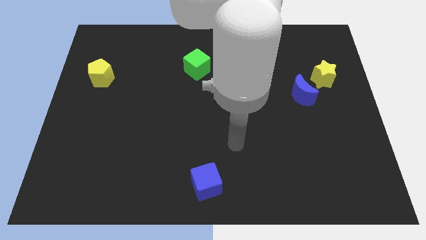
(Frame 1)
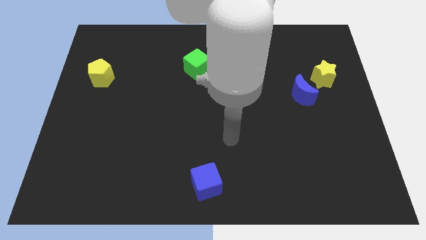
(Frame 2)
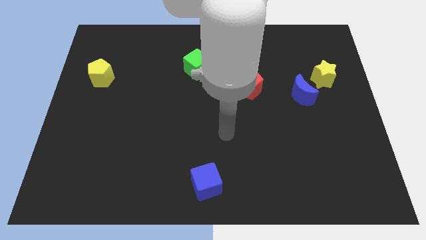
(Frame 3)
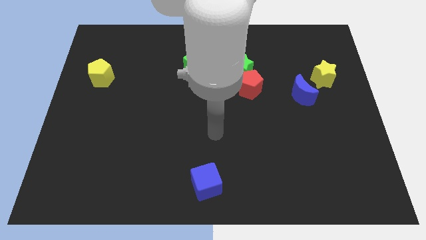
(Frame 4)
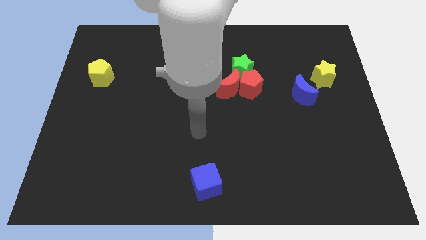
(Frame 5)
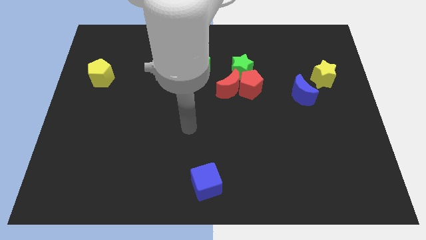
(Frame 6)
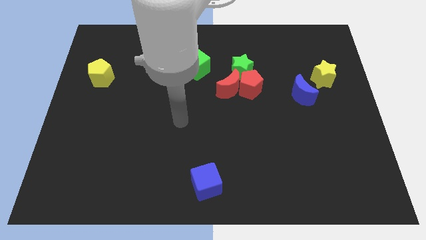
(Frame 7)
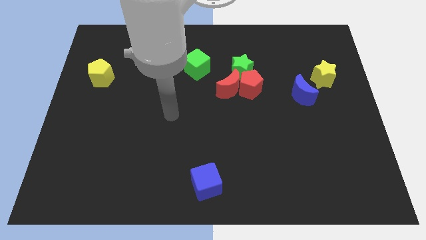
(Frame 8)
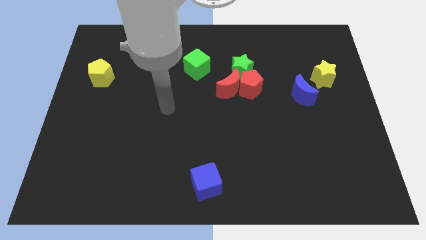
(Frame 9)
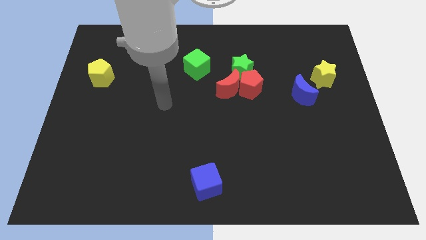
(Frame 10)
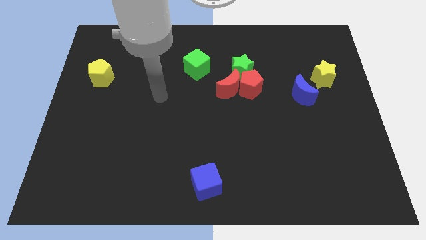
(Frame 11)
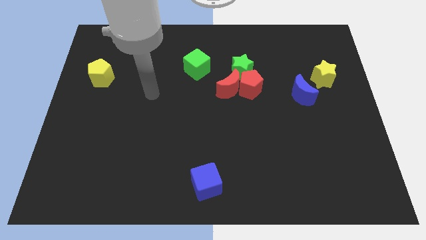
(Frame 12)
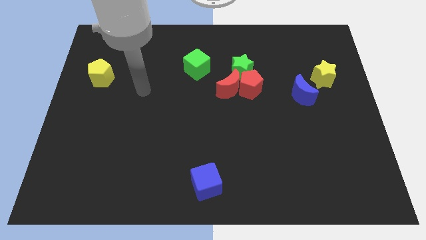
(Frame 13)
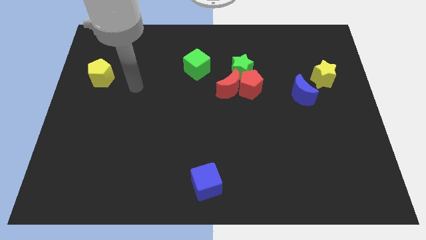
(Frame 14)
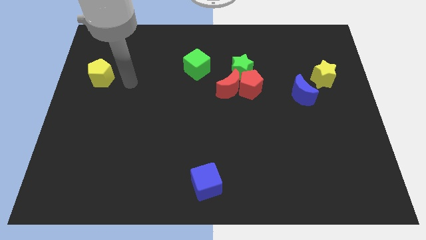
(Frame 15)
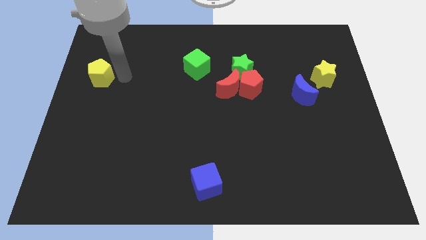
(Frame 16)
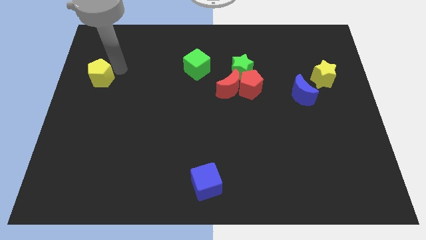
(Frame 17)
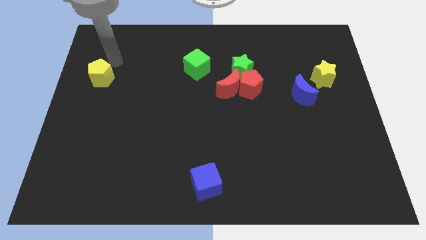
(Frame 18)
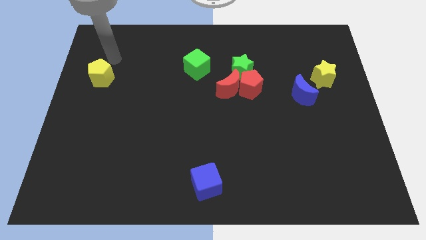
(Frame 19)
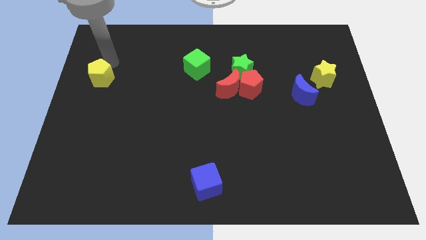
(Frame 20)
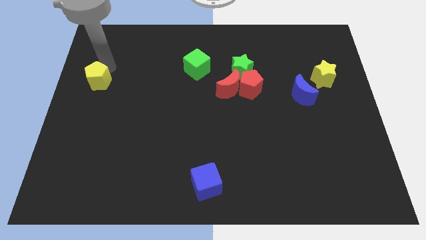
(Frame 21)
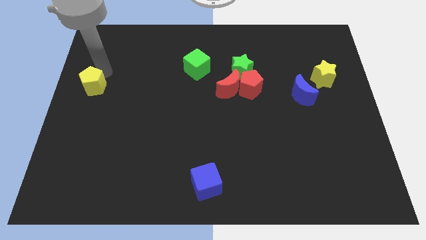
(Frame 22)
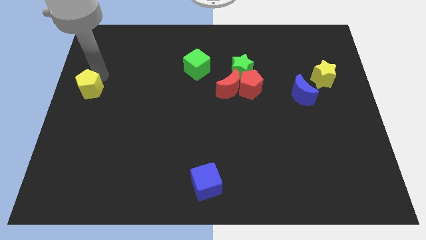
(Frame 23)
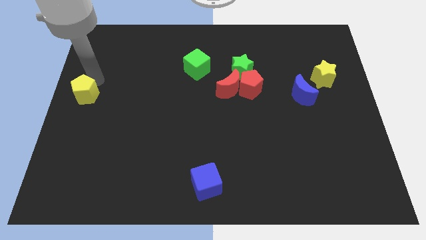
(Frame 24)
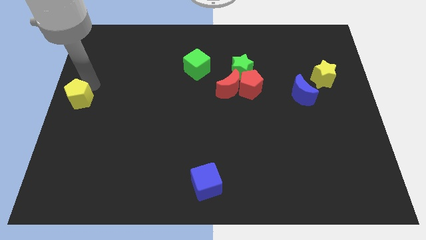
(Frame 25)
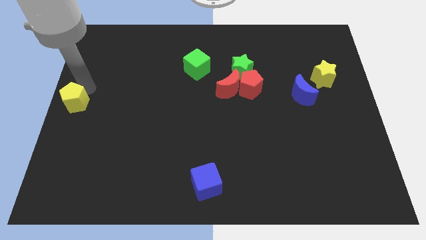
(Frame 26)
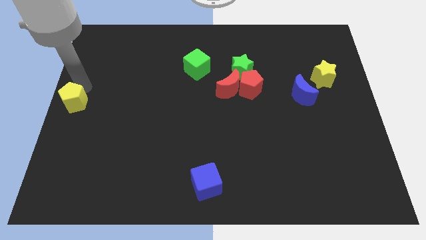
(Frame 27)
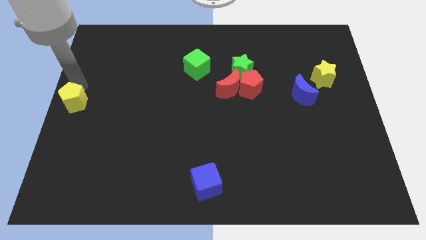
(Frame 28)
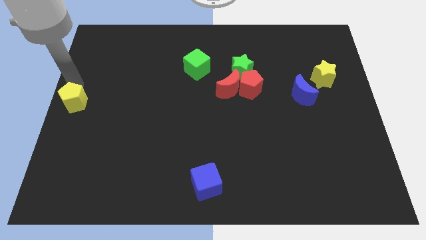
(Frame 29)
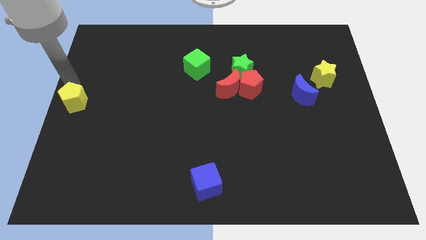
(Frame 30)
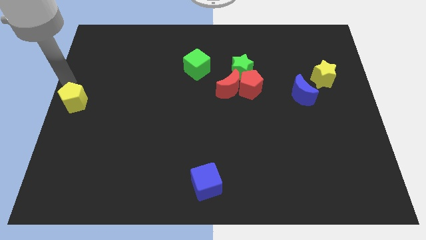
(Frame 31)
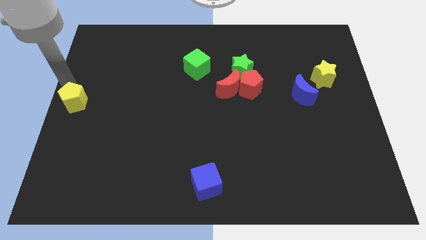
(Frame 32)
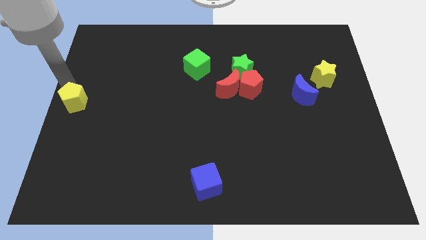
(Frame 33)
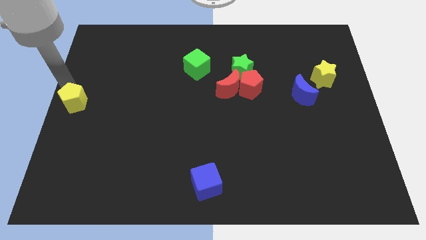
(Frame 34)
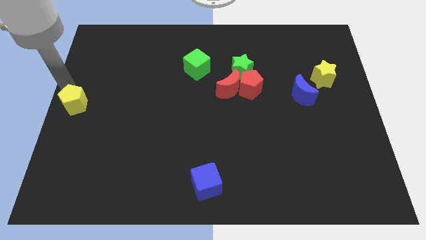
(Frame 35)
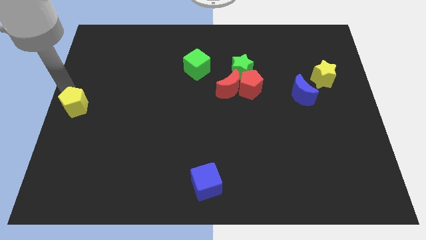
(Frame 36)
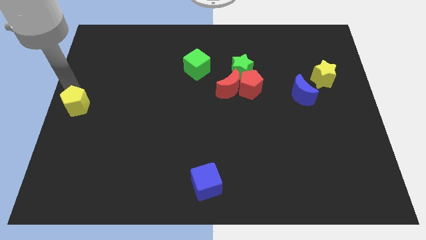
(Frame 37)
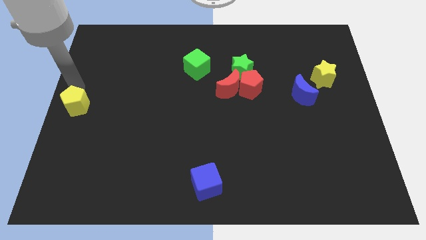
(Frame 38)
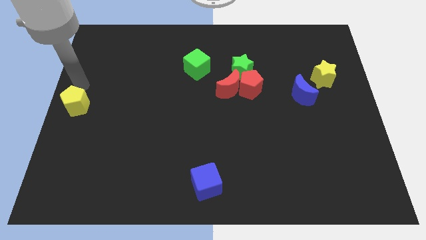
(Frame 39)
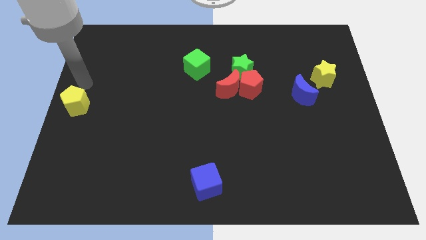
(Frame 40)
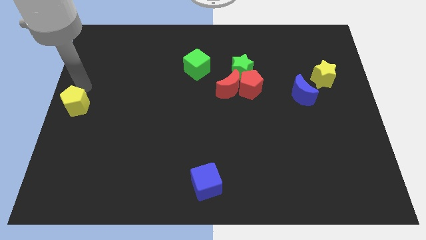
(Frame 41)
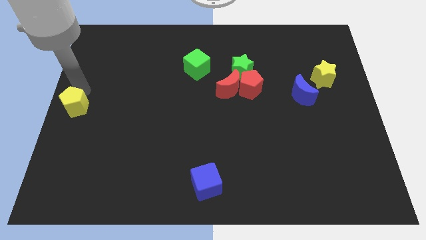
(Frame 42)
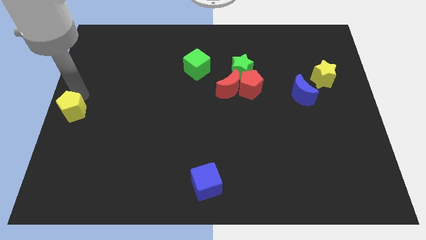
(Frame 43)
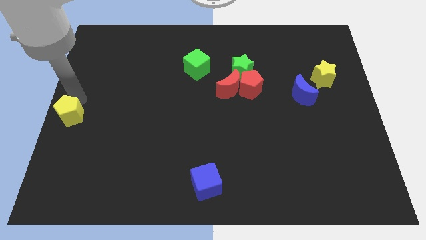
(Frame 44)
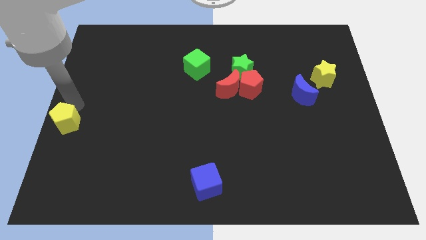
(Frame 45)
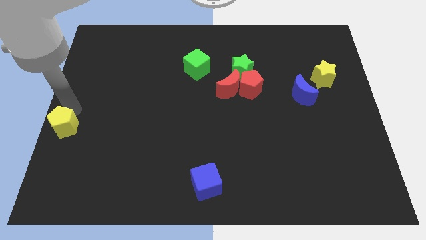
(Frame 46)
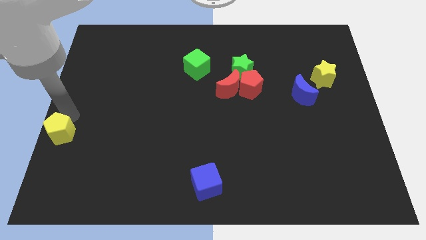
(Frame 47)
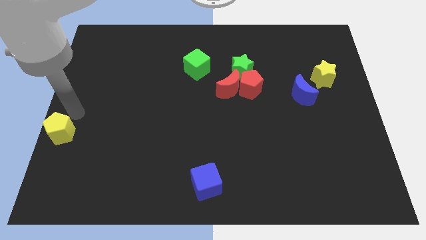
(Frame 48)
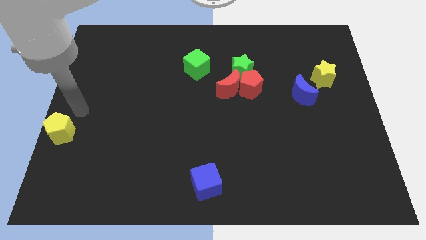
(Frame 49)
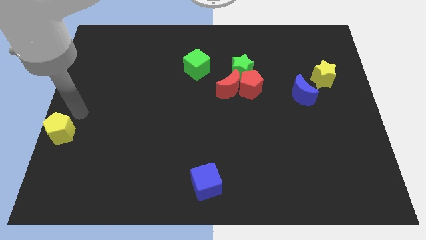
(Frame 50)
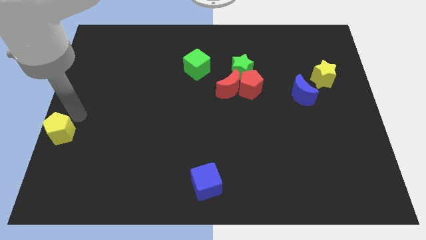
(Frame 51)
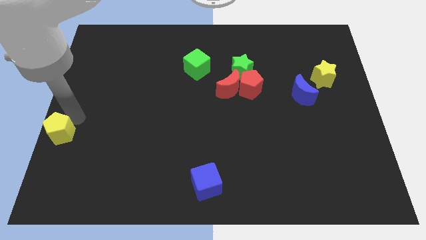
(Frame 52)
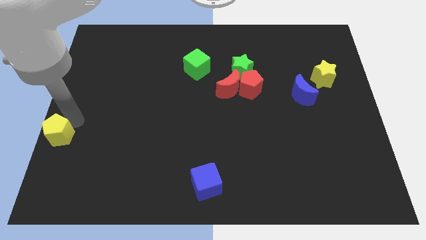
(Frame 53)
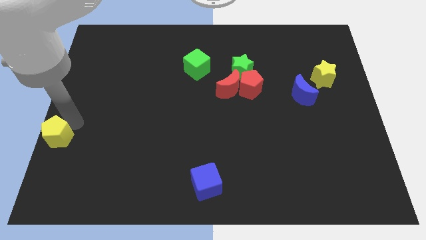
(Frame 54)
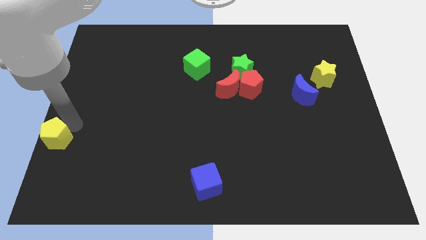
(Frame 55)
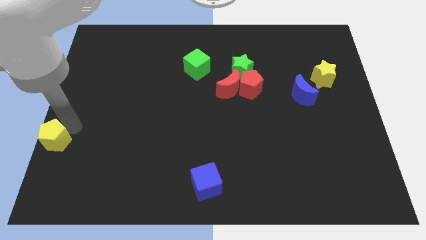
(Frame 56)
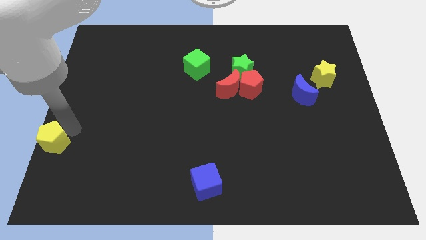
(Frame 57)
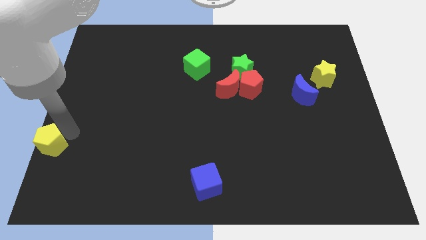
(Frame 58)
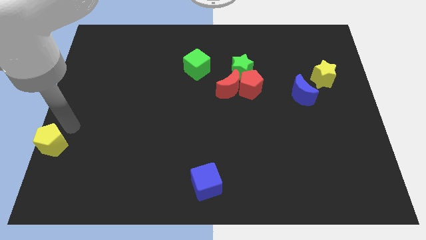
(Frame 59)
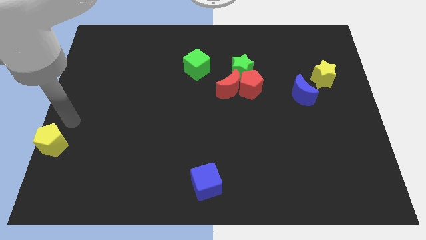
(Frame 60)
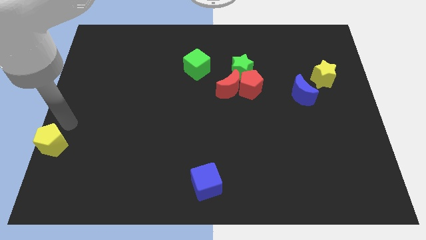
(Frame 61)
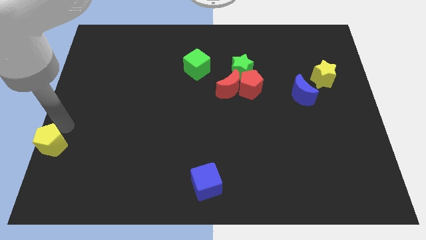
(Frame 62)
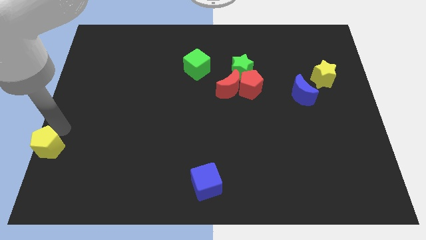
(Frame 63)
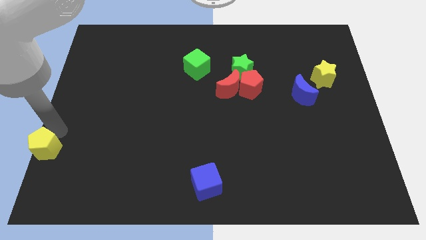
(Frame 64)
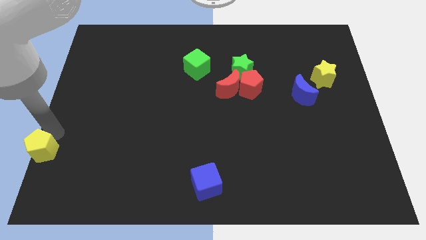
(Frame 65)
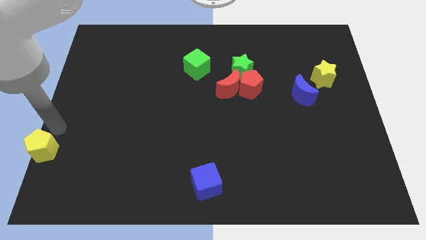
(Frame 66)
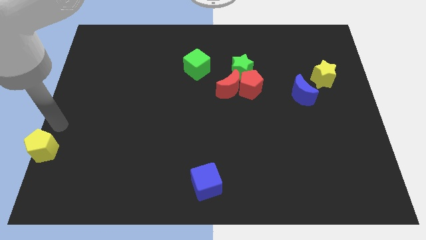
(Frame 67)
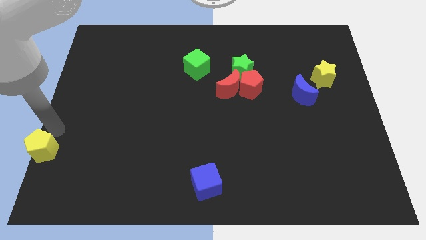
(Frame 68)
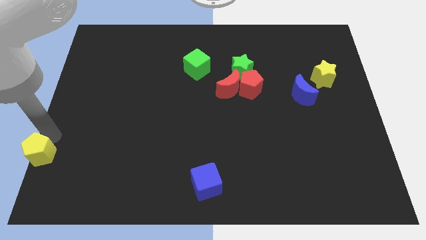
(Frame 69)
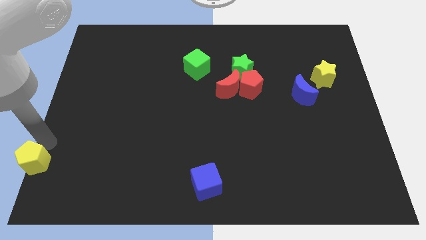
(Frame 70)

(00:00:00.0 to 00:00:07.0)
put the yellow pentagon to the bottom left corner
